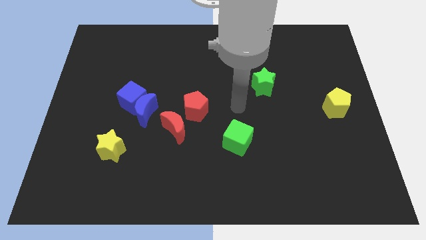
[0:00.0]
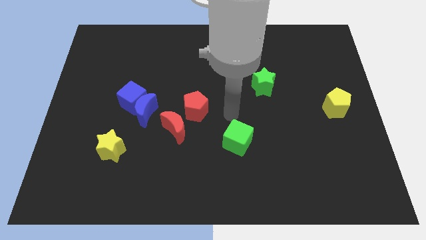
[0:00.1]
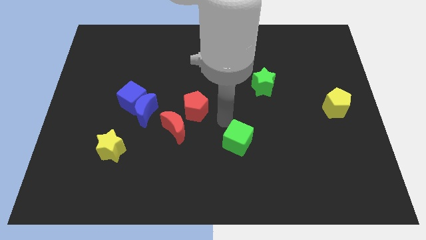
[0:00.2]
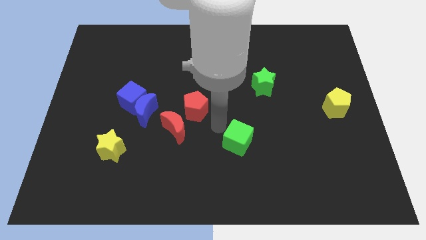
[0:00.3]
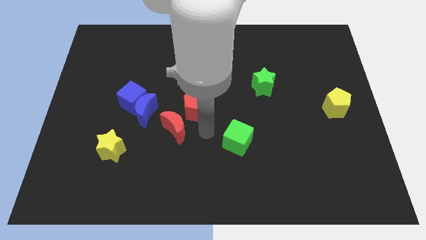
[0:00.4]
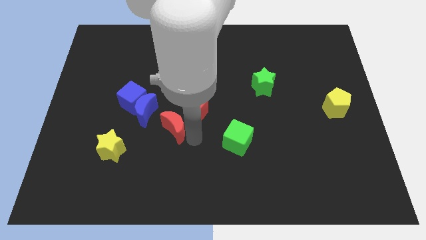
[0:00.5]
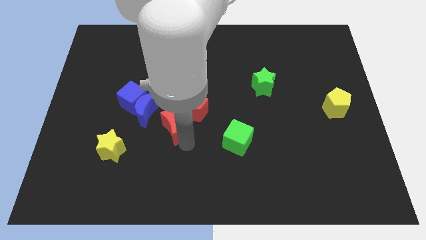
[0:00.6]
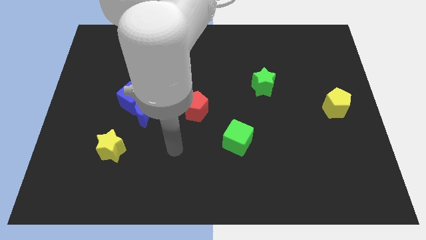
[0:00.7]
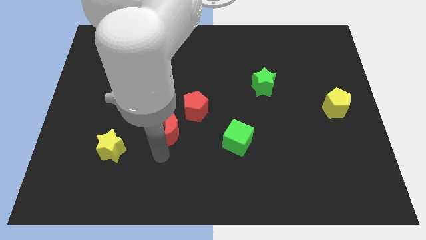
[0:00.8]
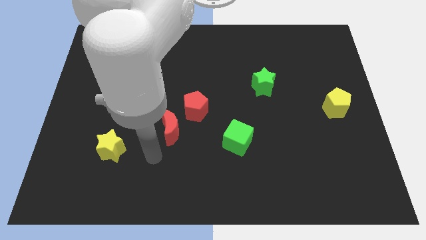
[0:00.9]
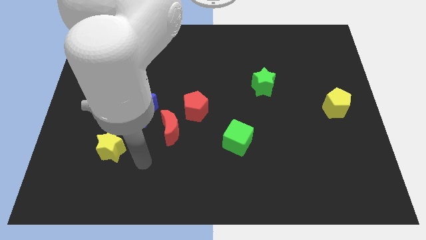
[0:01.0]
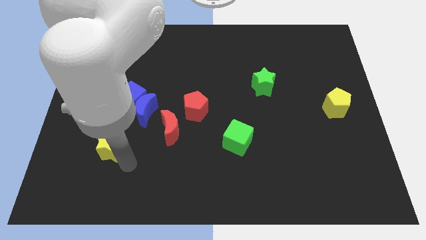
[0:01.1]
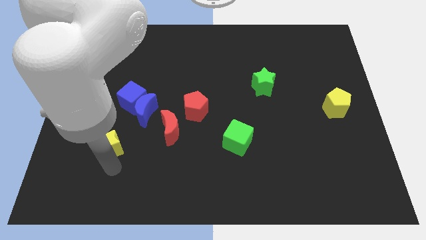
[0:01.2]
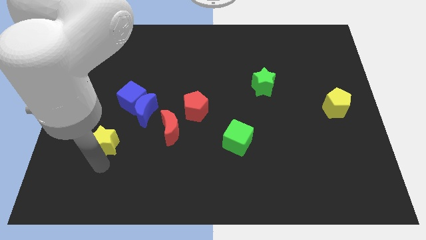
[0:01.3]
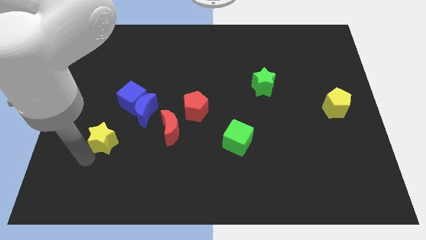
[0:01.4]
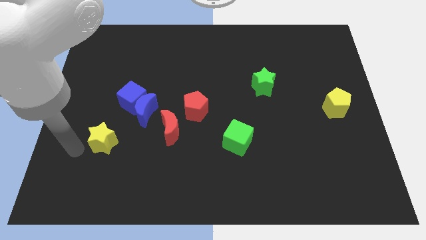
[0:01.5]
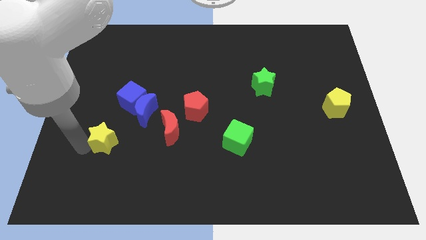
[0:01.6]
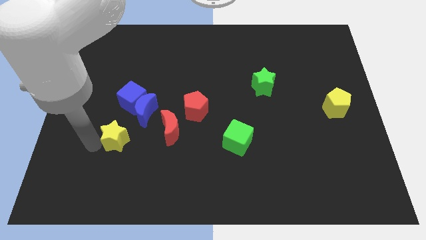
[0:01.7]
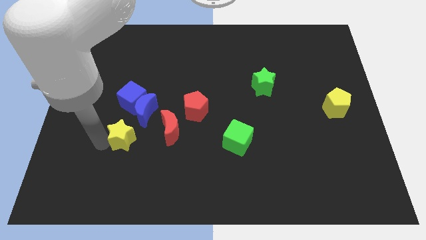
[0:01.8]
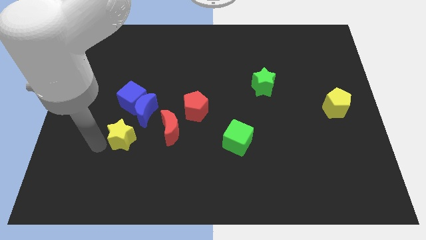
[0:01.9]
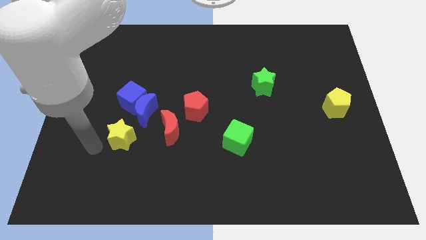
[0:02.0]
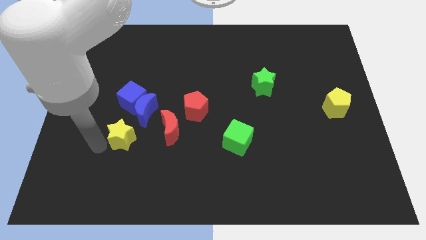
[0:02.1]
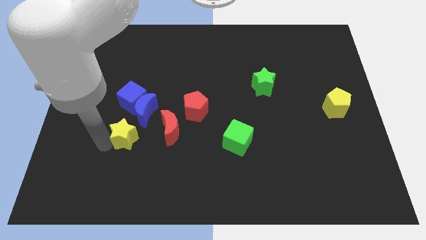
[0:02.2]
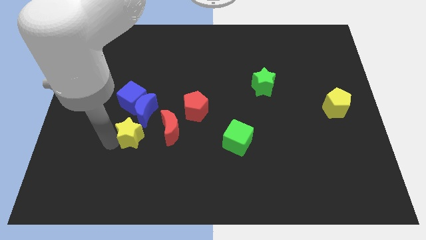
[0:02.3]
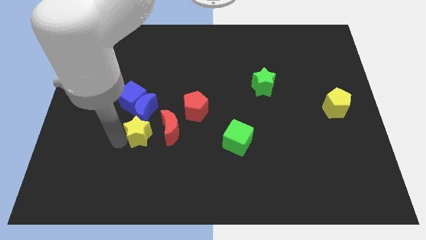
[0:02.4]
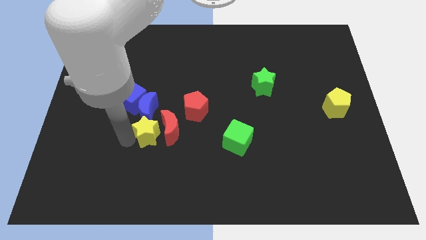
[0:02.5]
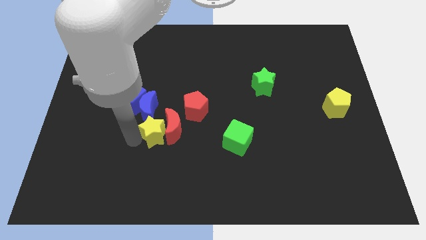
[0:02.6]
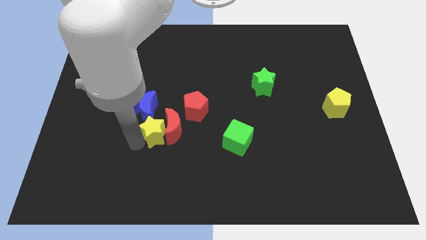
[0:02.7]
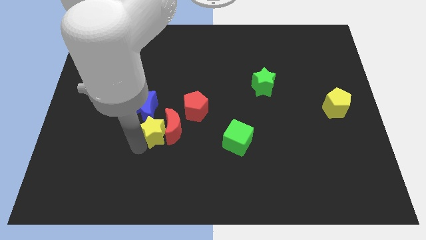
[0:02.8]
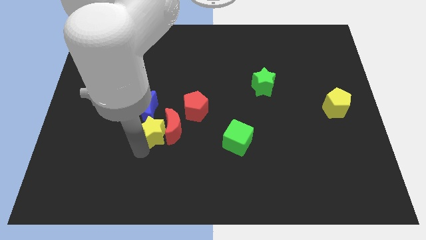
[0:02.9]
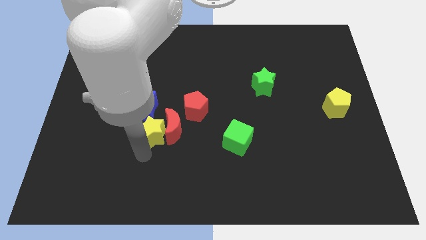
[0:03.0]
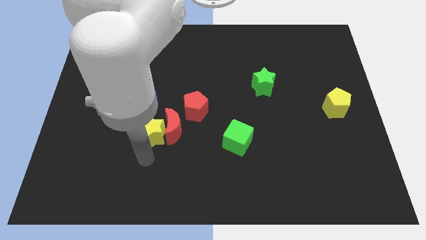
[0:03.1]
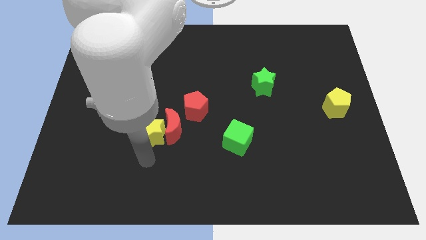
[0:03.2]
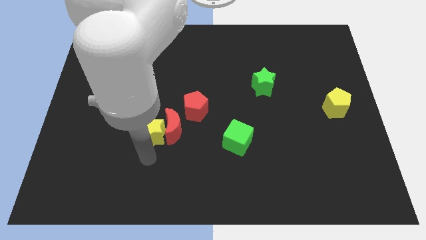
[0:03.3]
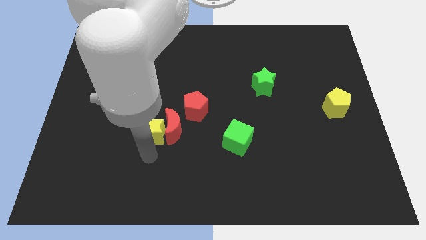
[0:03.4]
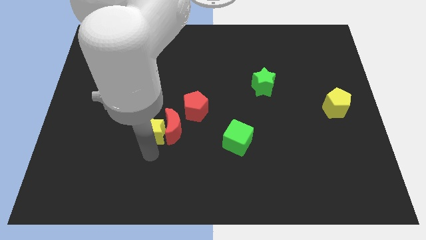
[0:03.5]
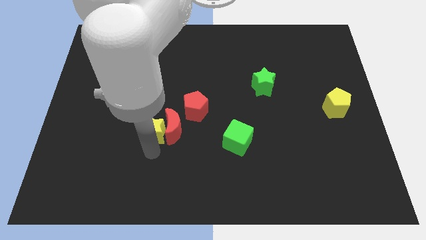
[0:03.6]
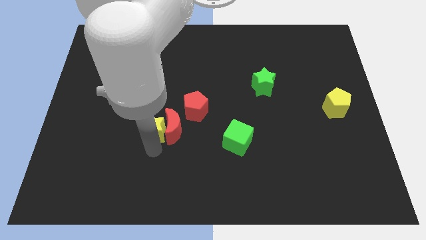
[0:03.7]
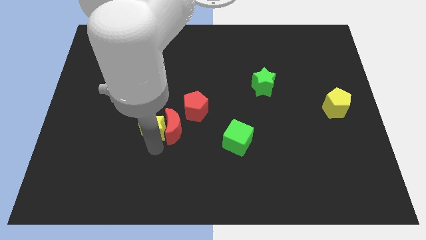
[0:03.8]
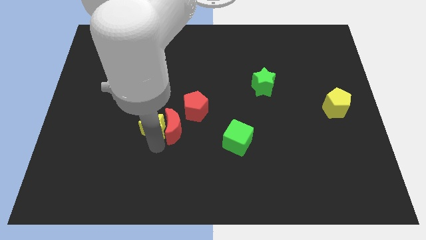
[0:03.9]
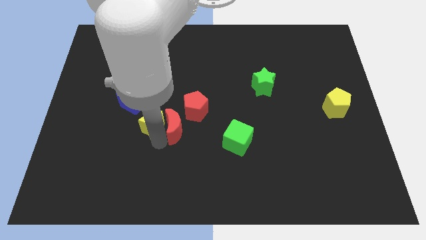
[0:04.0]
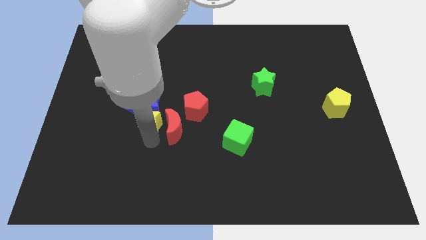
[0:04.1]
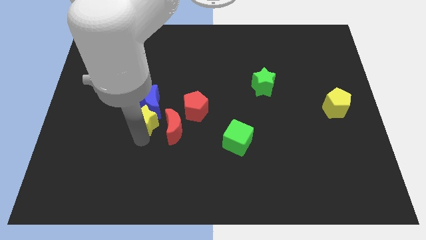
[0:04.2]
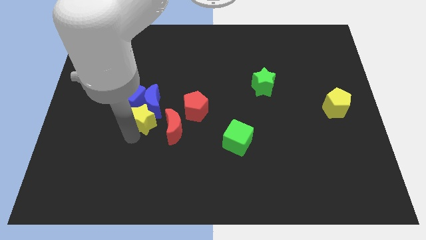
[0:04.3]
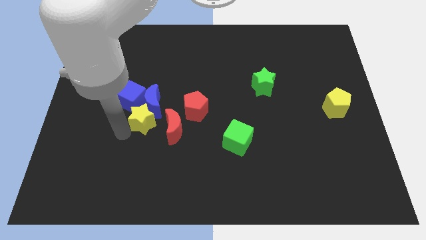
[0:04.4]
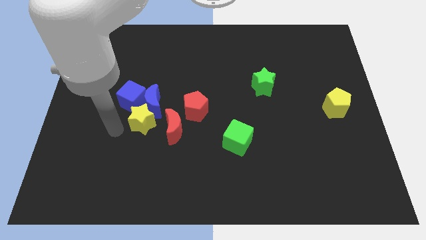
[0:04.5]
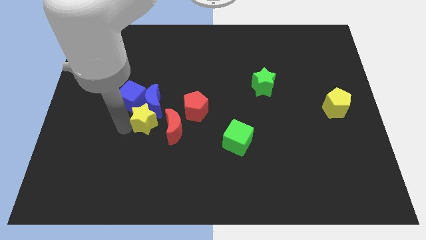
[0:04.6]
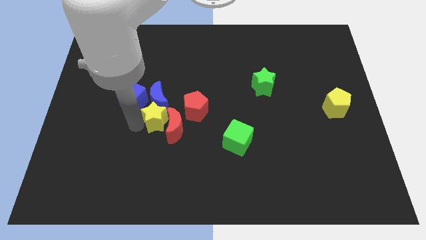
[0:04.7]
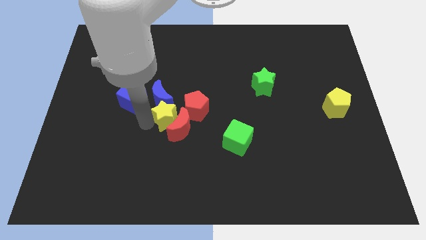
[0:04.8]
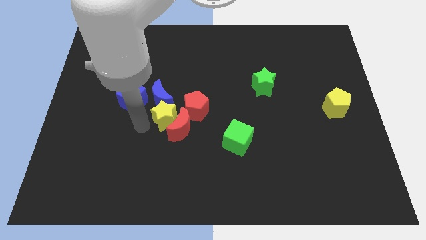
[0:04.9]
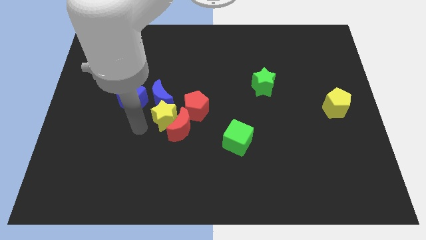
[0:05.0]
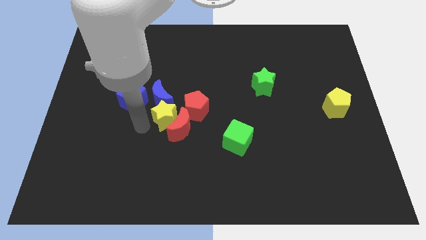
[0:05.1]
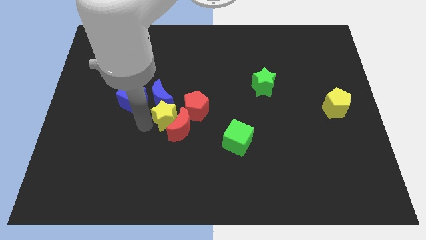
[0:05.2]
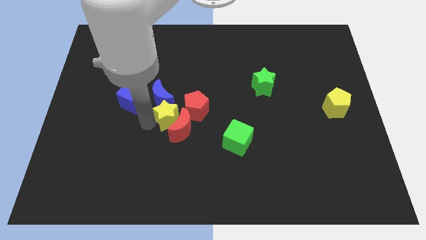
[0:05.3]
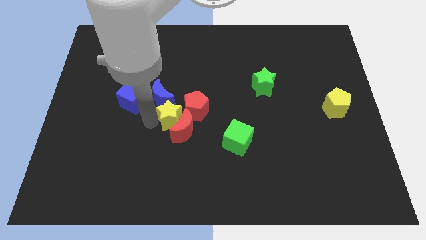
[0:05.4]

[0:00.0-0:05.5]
push the yellow star next to the red pentagon

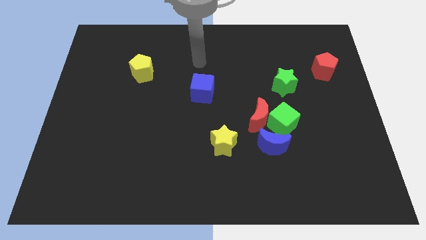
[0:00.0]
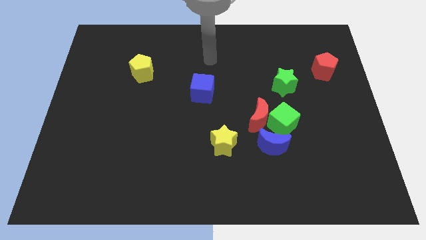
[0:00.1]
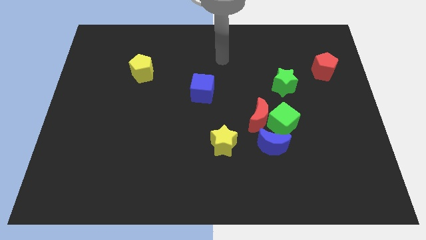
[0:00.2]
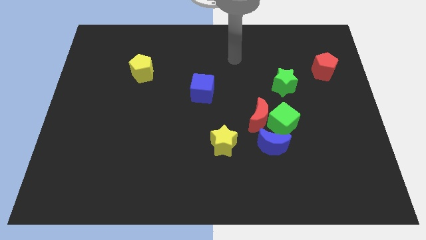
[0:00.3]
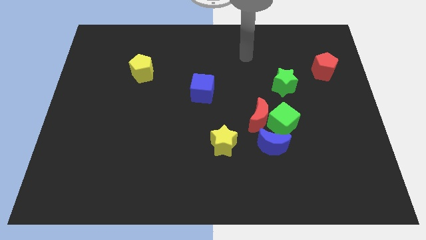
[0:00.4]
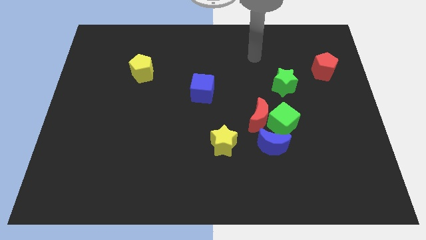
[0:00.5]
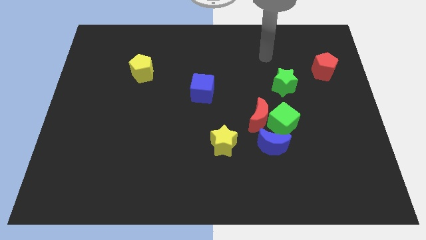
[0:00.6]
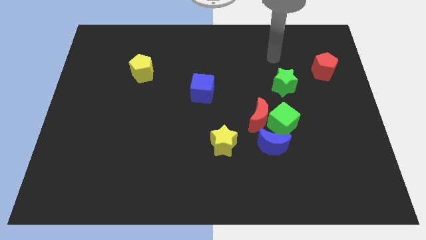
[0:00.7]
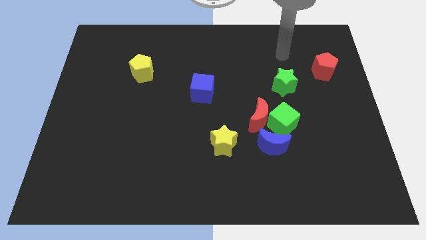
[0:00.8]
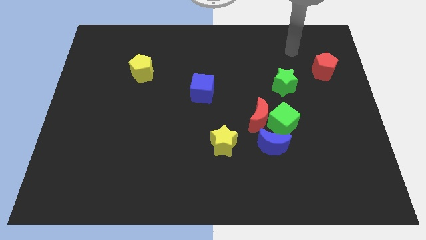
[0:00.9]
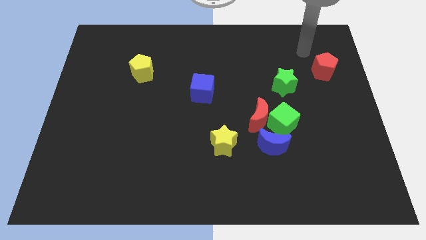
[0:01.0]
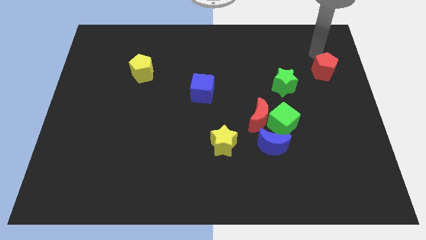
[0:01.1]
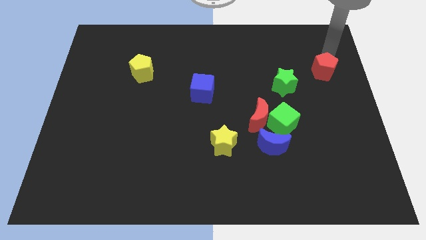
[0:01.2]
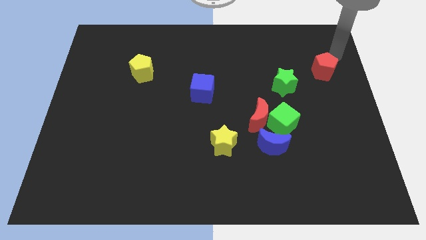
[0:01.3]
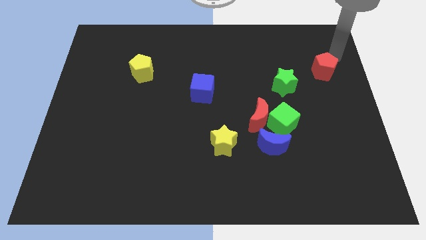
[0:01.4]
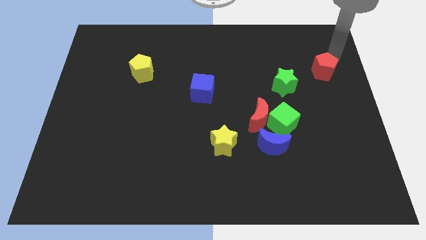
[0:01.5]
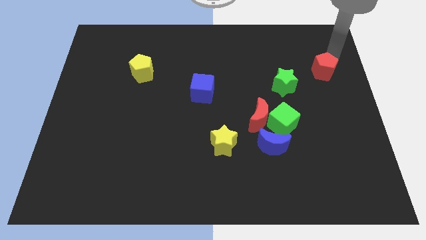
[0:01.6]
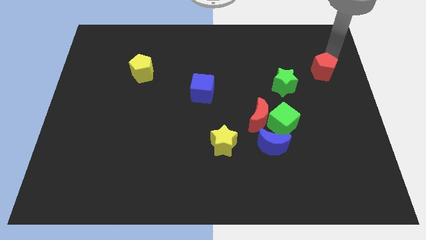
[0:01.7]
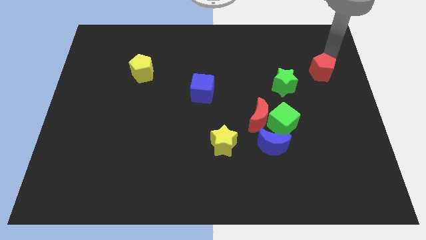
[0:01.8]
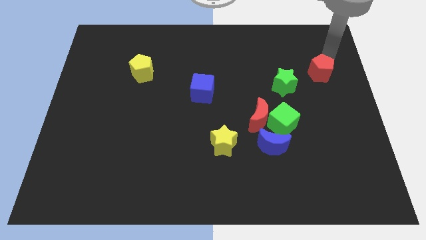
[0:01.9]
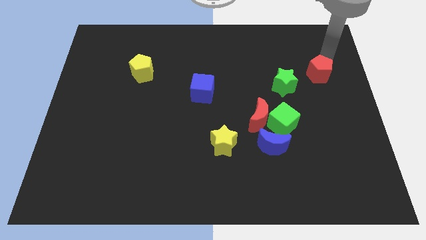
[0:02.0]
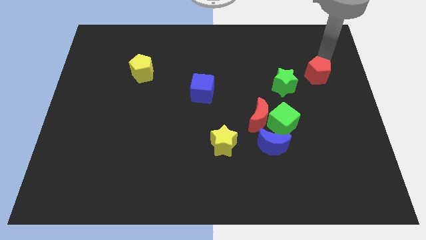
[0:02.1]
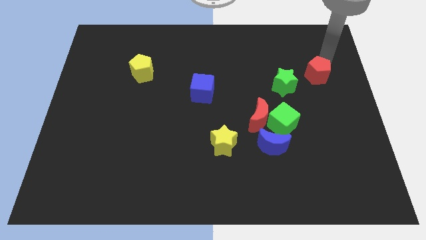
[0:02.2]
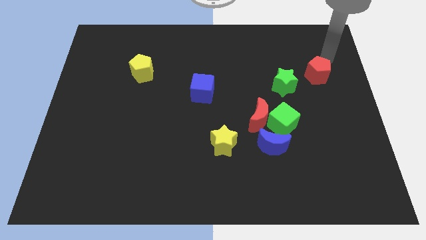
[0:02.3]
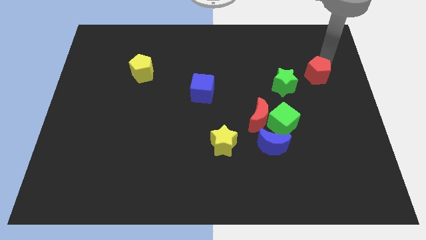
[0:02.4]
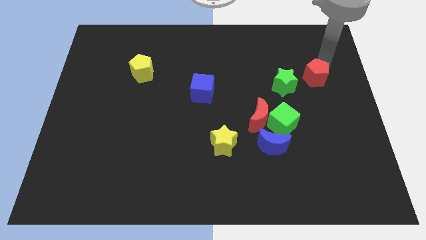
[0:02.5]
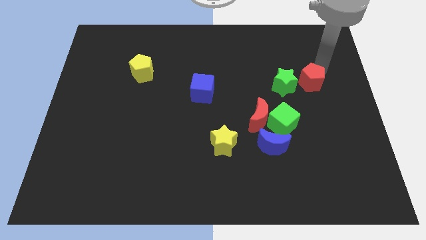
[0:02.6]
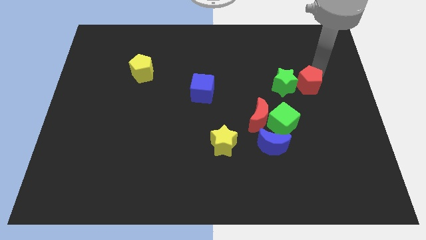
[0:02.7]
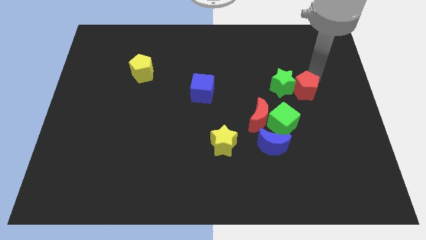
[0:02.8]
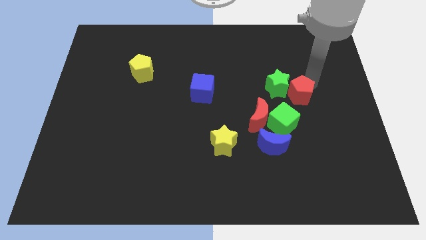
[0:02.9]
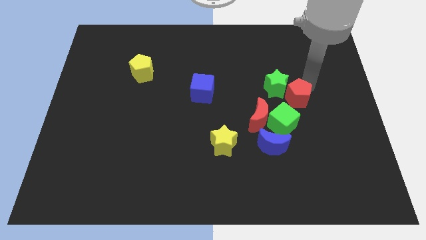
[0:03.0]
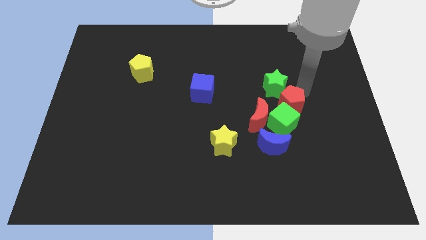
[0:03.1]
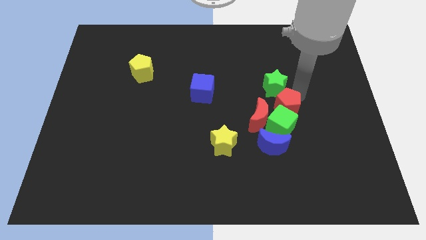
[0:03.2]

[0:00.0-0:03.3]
push the red pentagon to the green cube
